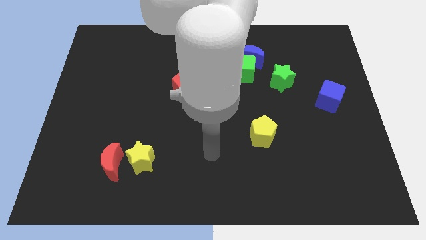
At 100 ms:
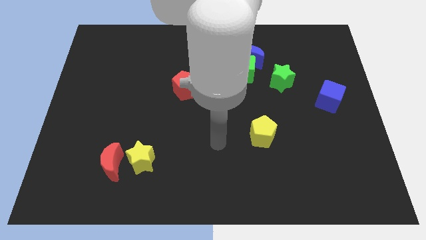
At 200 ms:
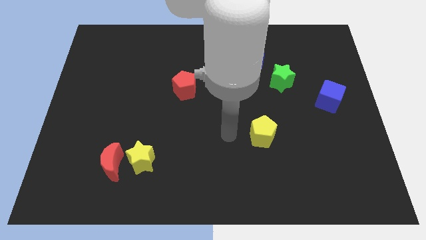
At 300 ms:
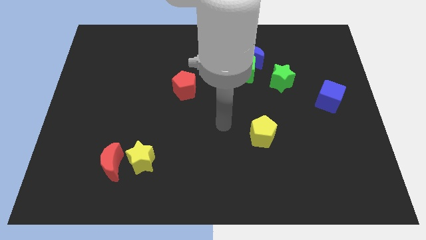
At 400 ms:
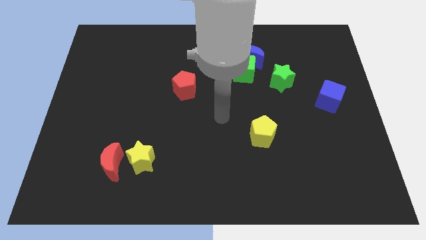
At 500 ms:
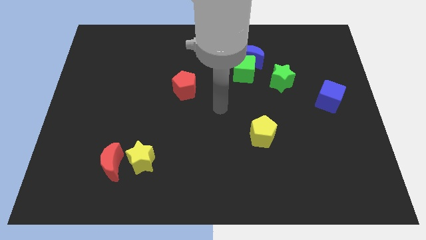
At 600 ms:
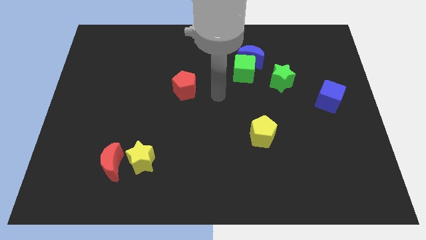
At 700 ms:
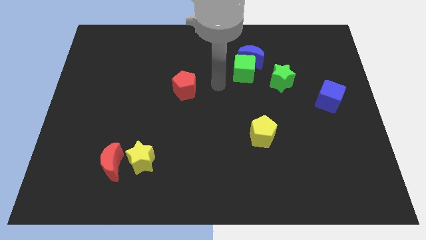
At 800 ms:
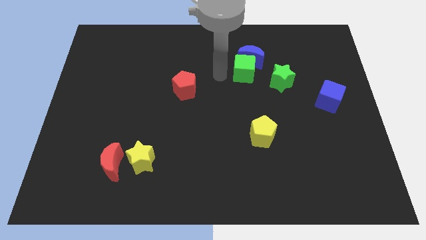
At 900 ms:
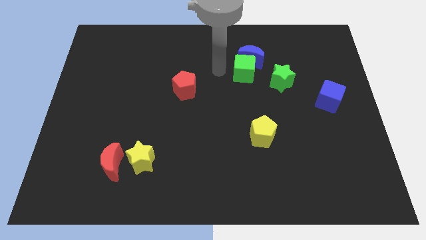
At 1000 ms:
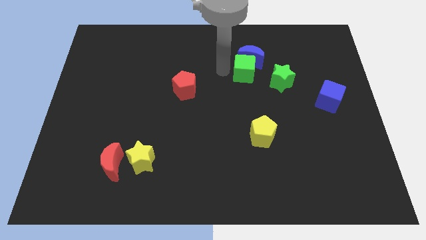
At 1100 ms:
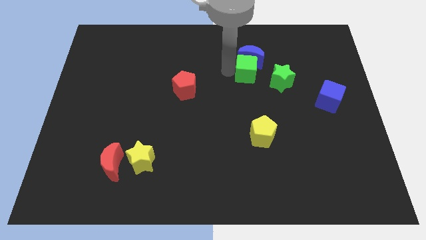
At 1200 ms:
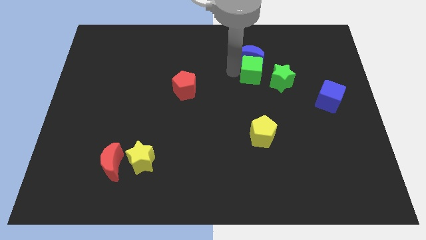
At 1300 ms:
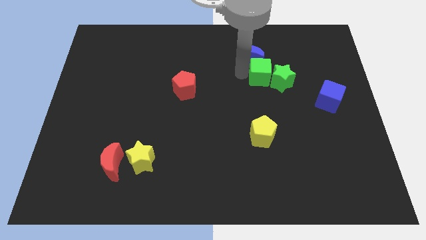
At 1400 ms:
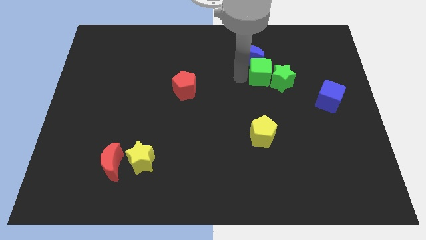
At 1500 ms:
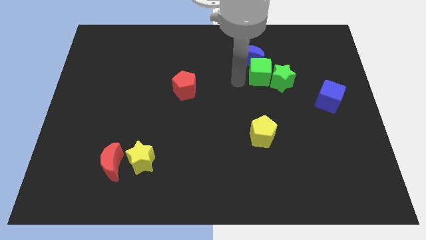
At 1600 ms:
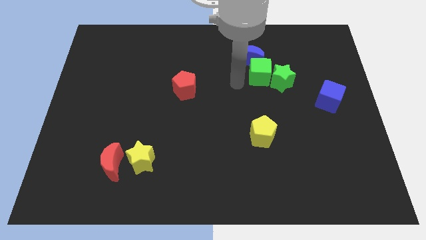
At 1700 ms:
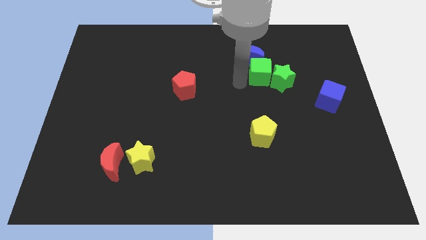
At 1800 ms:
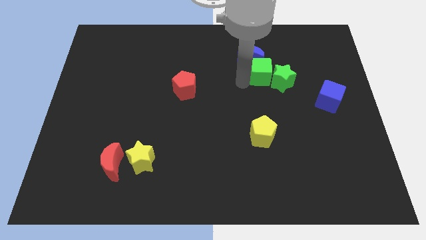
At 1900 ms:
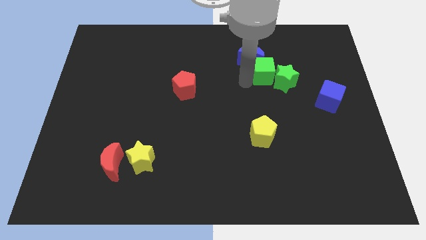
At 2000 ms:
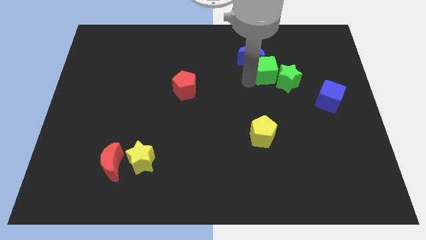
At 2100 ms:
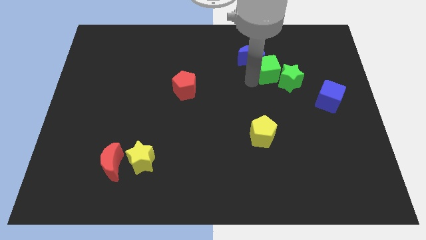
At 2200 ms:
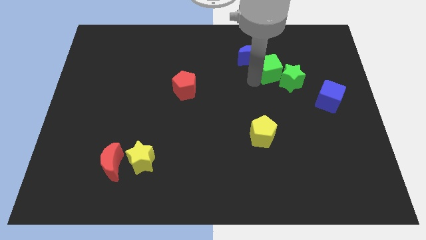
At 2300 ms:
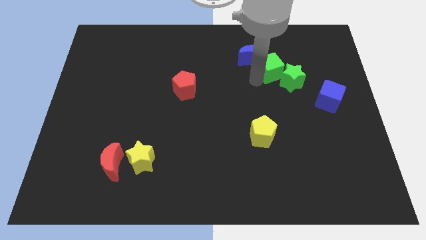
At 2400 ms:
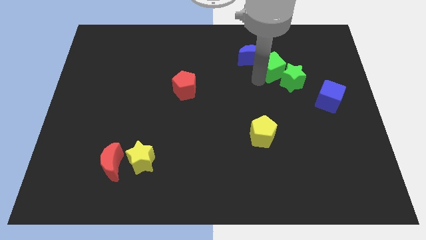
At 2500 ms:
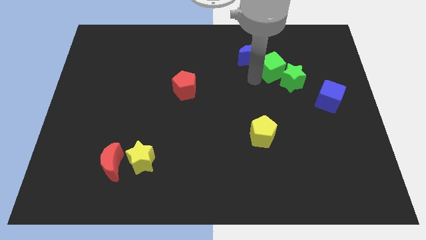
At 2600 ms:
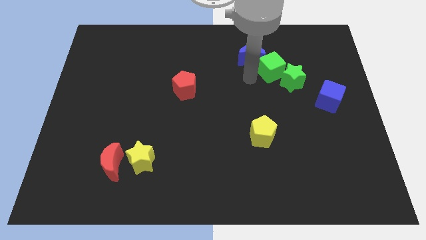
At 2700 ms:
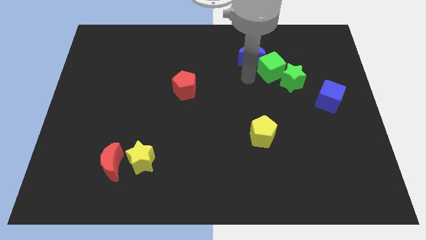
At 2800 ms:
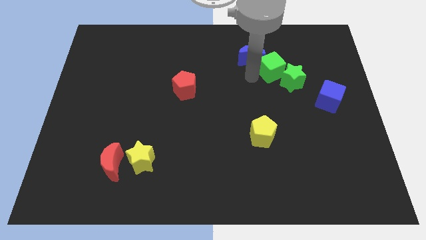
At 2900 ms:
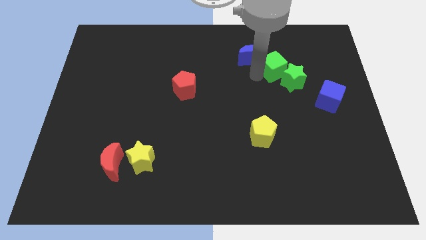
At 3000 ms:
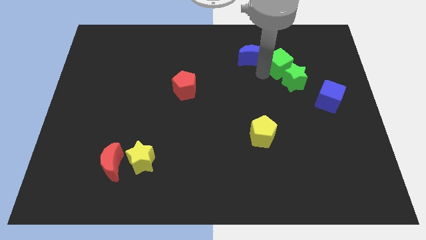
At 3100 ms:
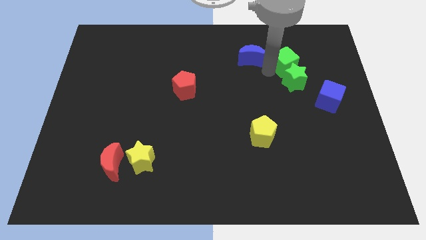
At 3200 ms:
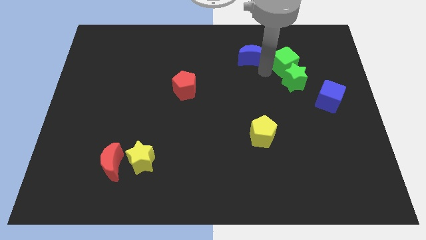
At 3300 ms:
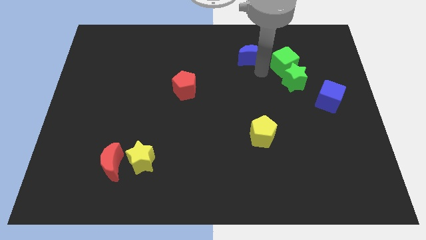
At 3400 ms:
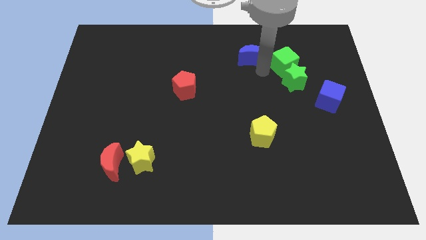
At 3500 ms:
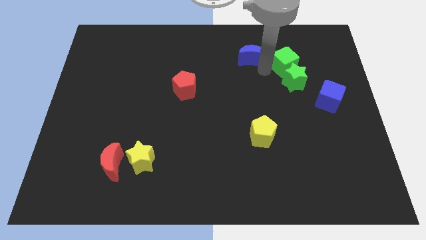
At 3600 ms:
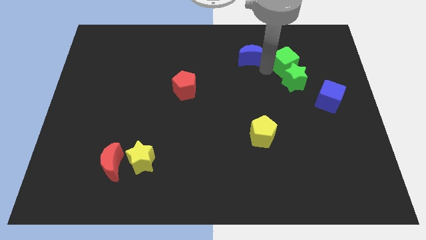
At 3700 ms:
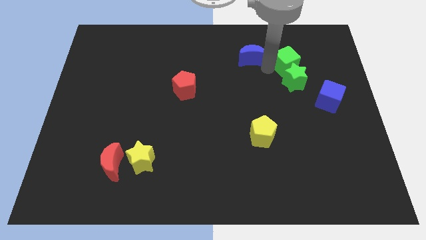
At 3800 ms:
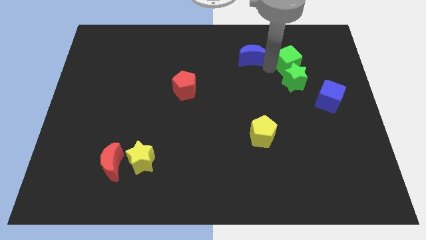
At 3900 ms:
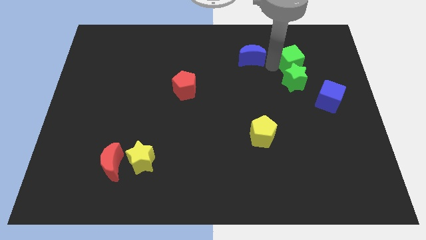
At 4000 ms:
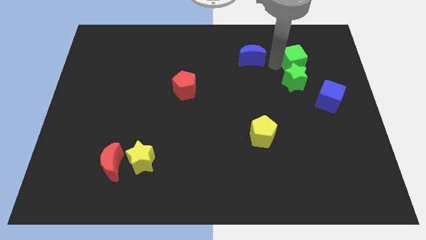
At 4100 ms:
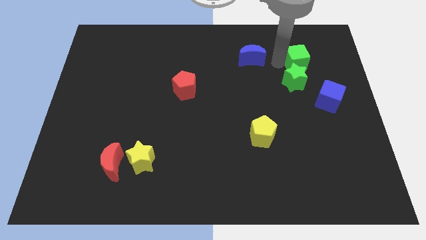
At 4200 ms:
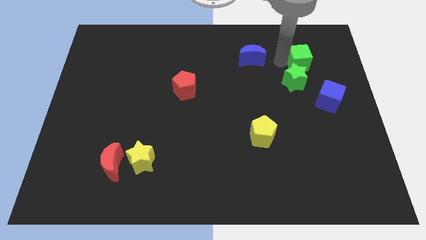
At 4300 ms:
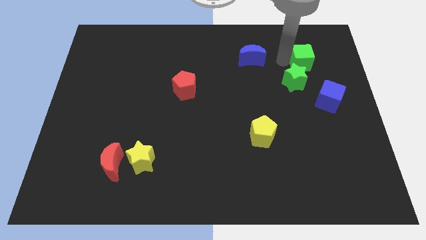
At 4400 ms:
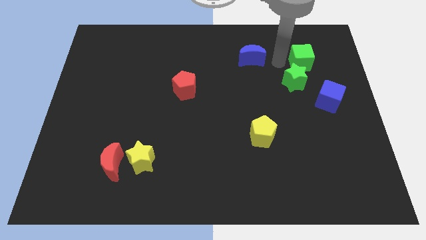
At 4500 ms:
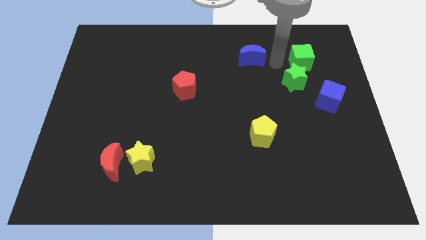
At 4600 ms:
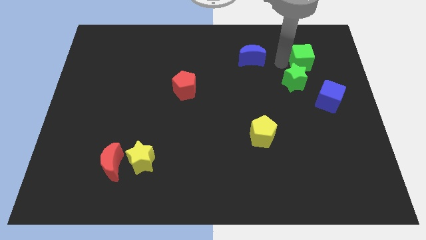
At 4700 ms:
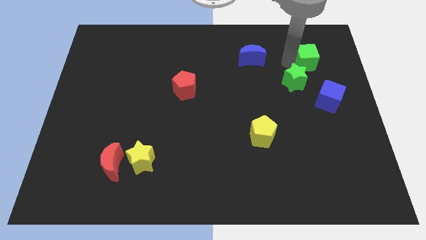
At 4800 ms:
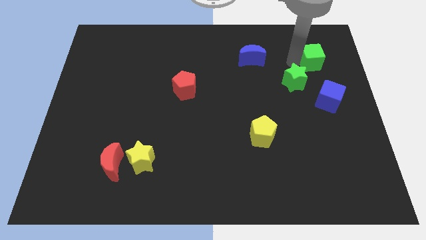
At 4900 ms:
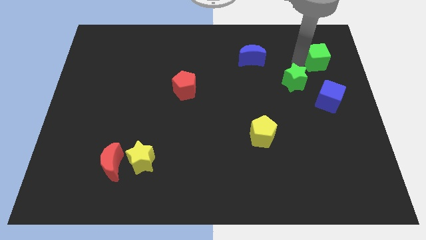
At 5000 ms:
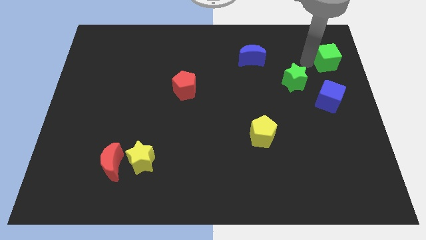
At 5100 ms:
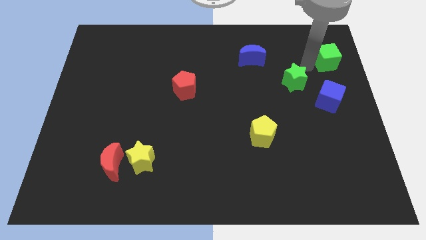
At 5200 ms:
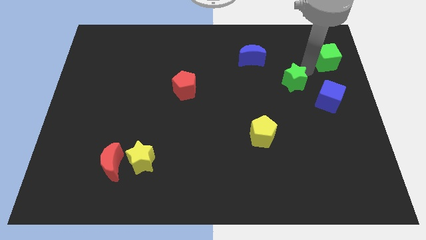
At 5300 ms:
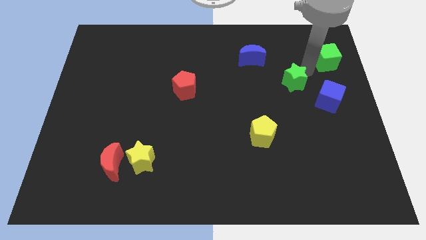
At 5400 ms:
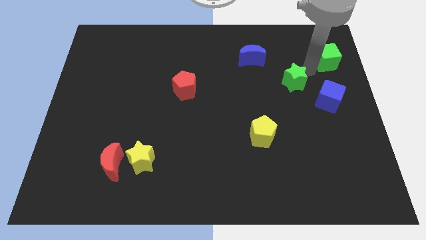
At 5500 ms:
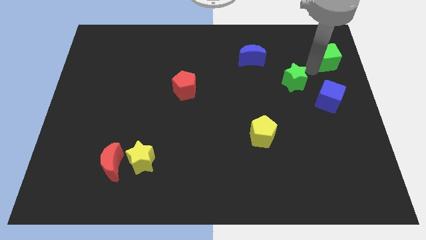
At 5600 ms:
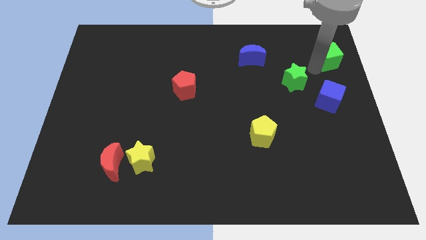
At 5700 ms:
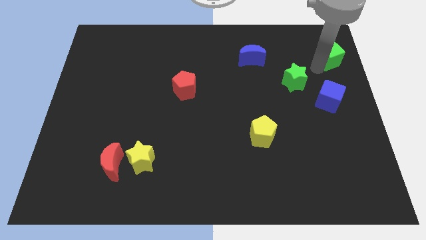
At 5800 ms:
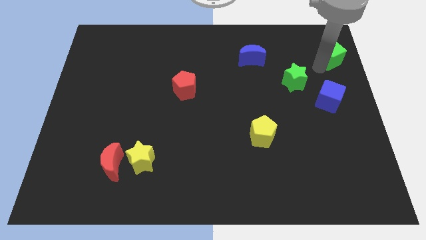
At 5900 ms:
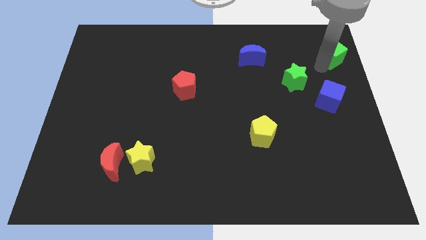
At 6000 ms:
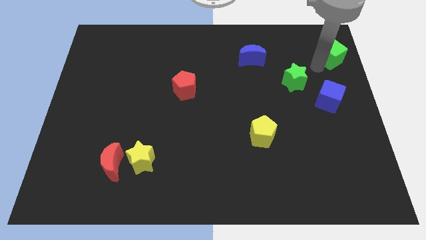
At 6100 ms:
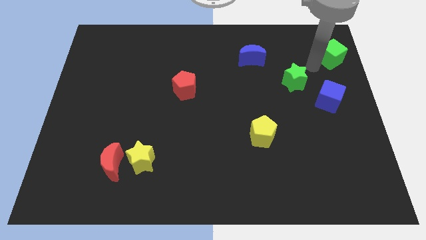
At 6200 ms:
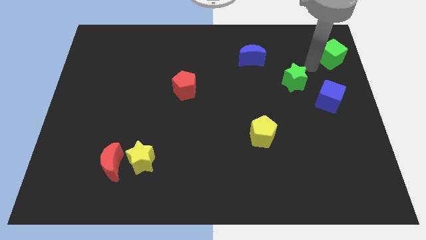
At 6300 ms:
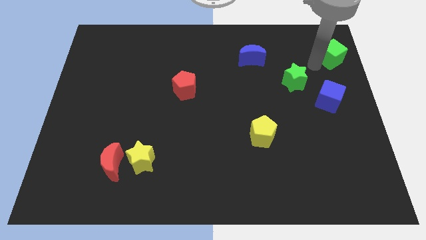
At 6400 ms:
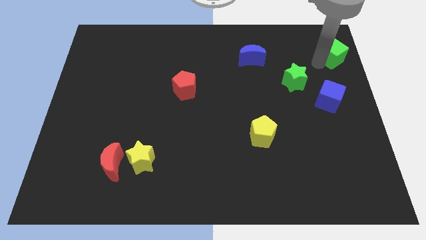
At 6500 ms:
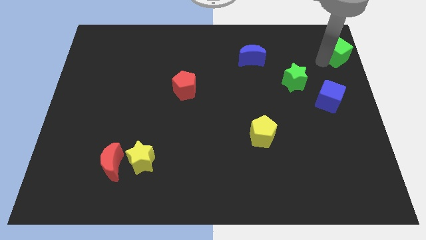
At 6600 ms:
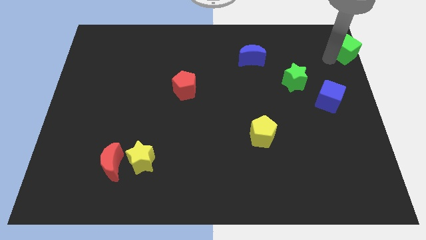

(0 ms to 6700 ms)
put the green cube to the top right
